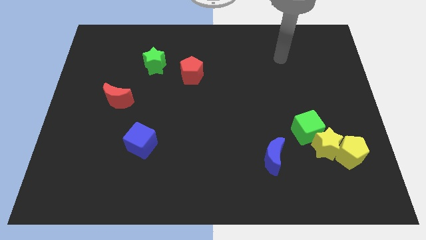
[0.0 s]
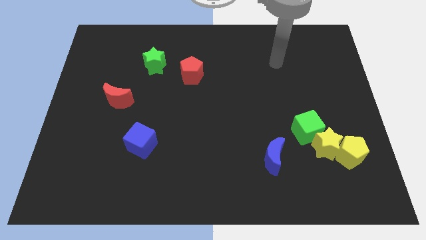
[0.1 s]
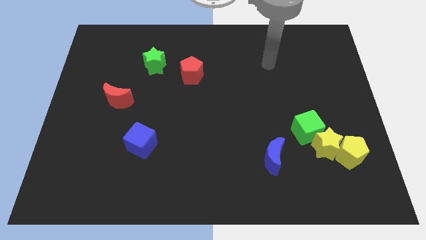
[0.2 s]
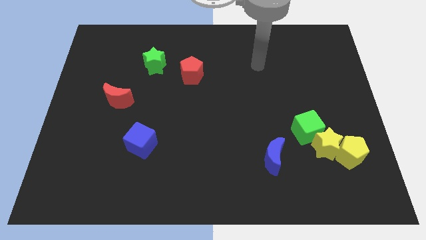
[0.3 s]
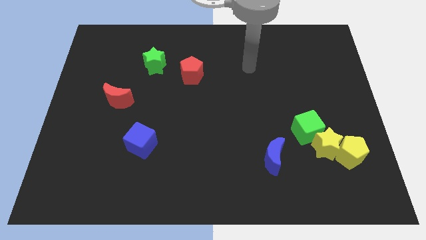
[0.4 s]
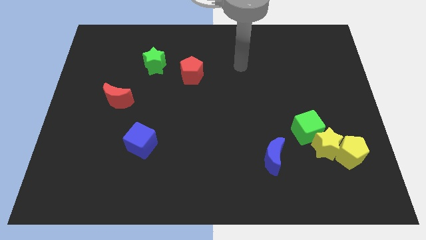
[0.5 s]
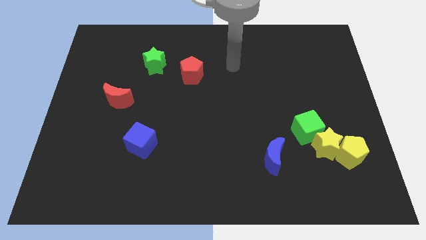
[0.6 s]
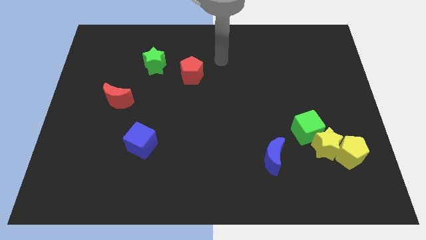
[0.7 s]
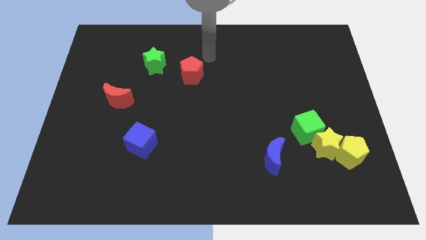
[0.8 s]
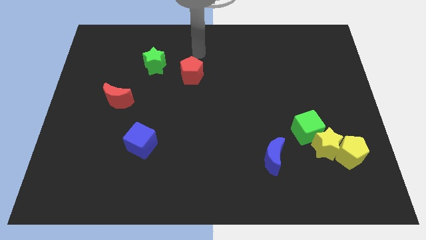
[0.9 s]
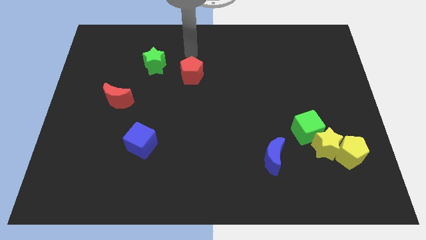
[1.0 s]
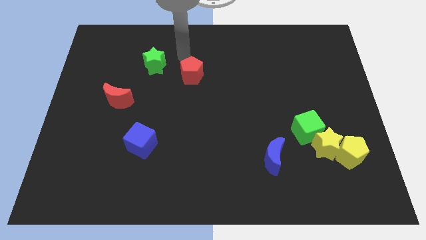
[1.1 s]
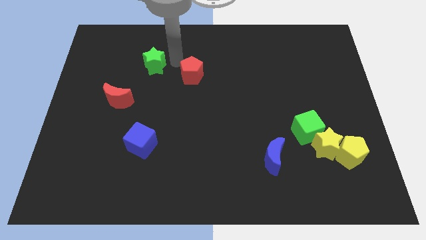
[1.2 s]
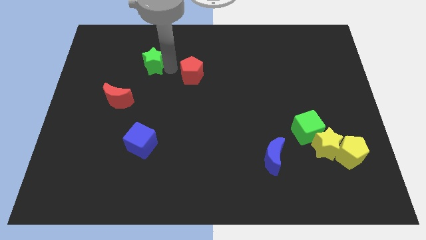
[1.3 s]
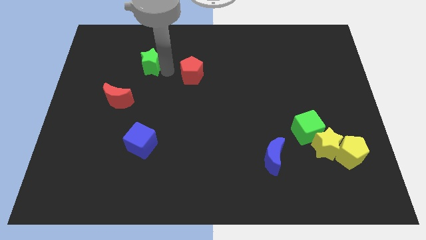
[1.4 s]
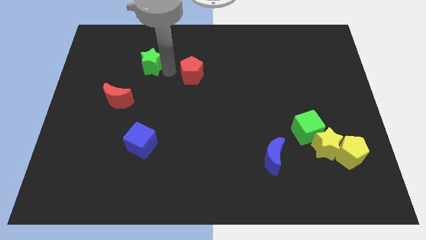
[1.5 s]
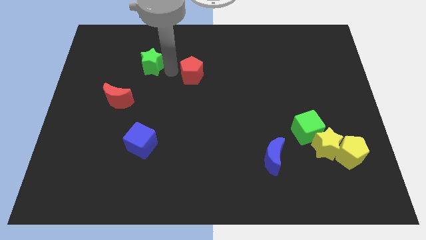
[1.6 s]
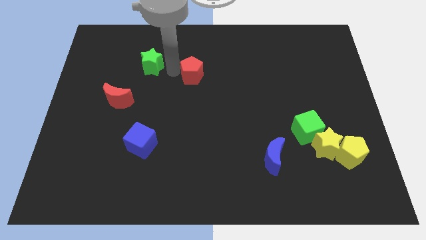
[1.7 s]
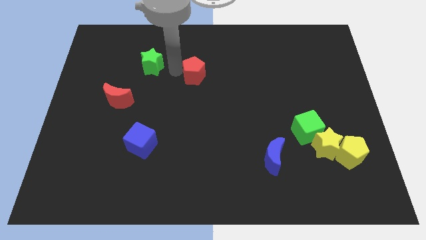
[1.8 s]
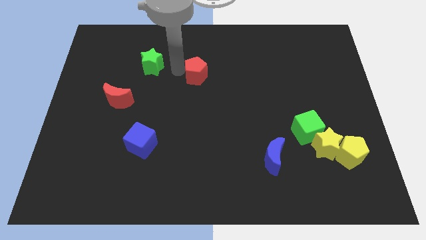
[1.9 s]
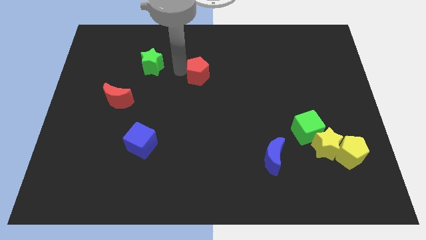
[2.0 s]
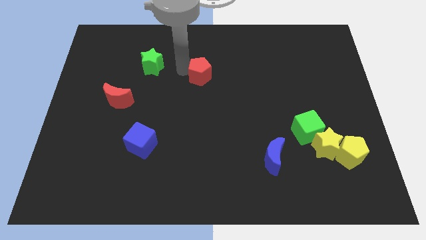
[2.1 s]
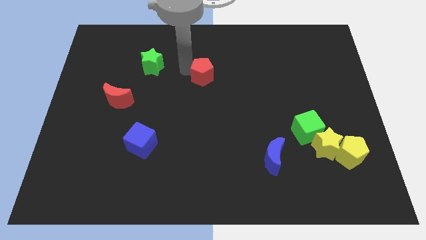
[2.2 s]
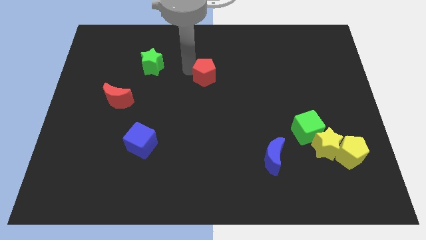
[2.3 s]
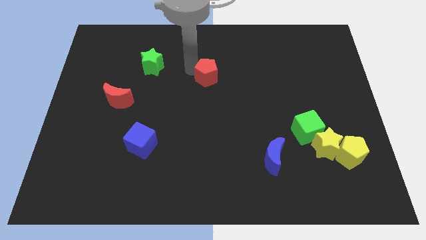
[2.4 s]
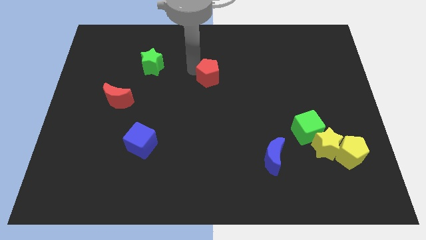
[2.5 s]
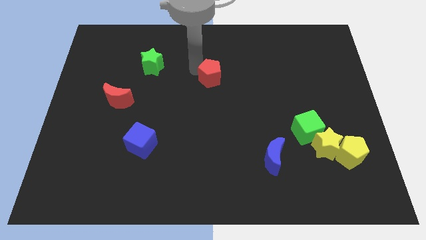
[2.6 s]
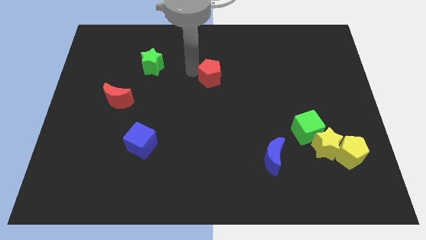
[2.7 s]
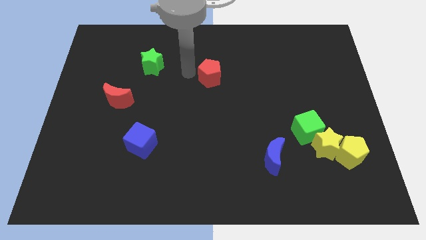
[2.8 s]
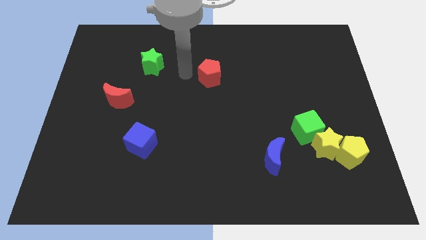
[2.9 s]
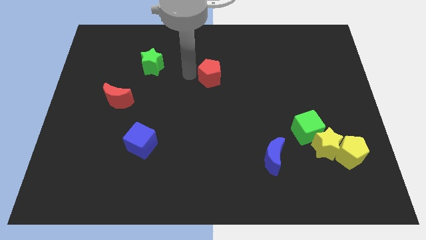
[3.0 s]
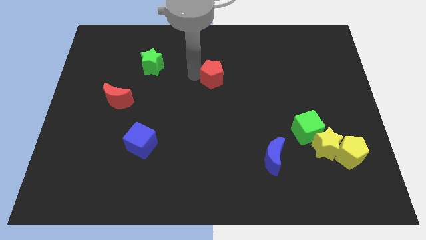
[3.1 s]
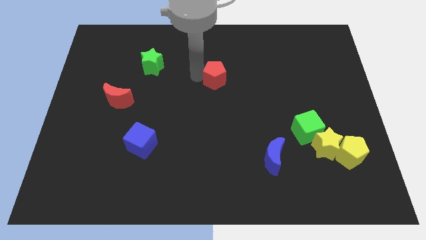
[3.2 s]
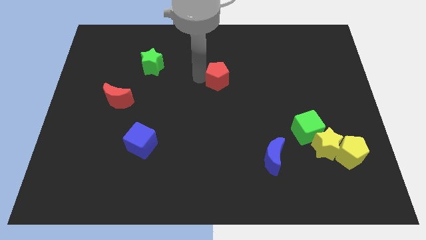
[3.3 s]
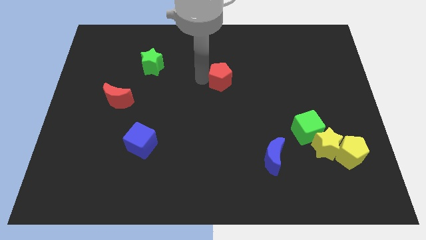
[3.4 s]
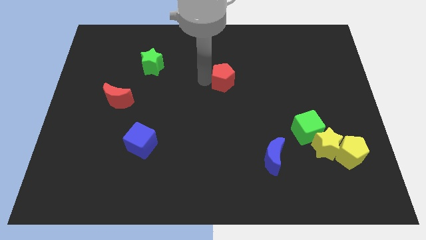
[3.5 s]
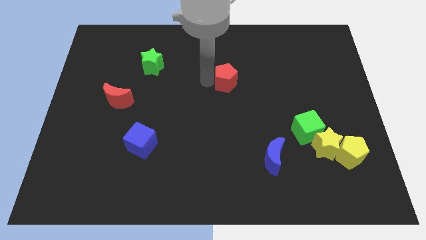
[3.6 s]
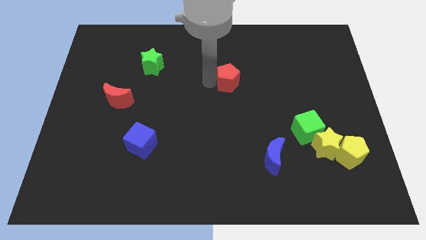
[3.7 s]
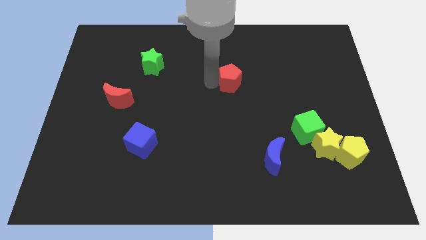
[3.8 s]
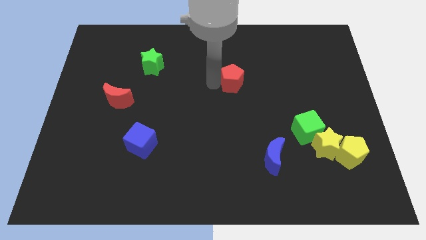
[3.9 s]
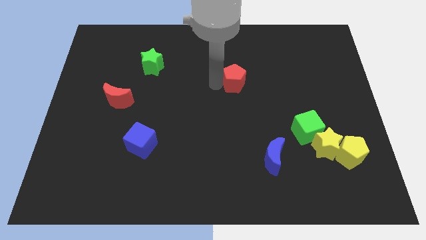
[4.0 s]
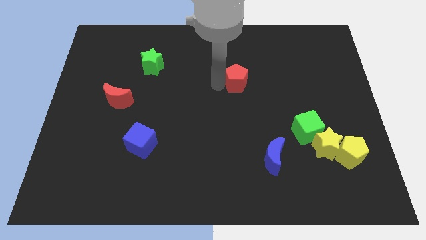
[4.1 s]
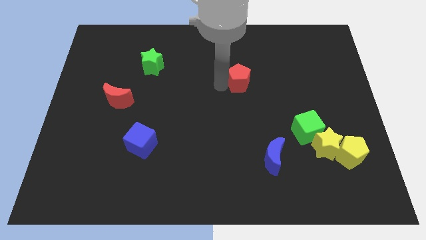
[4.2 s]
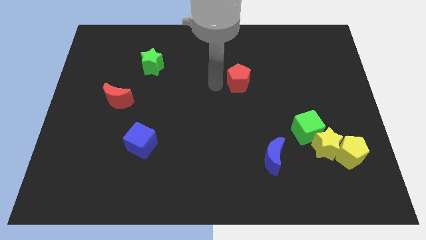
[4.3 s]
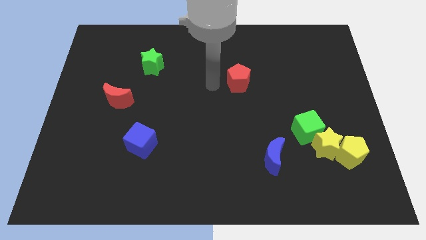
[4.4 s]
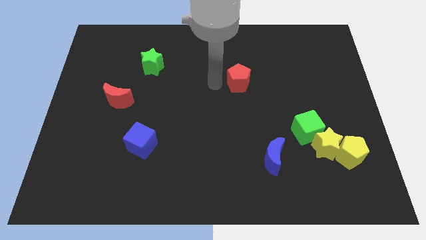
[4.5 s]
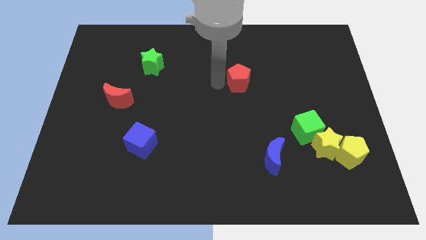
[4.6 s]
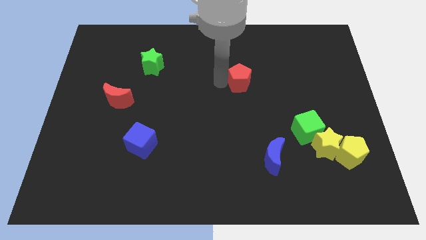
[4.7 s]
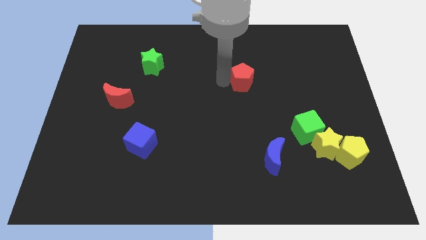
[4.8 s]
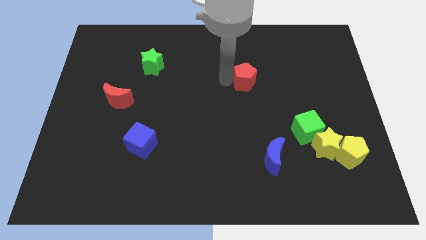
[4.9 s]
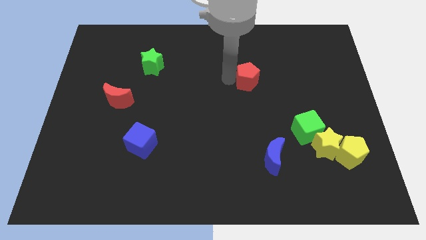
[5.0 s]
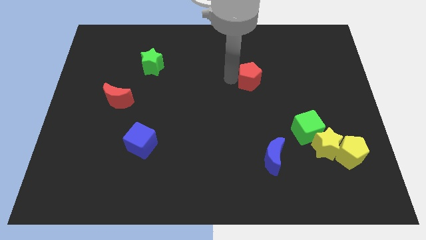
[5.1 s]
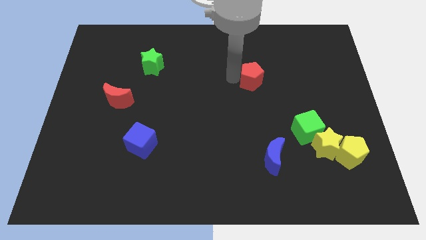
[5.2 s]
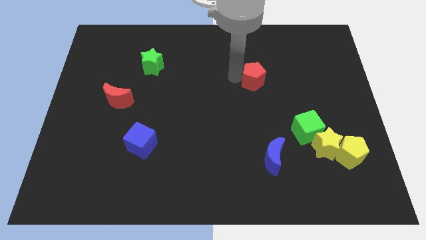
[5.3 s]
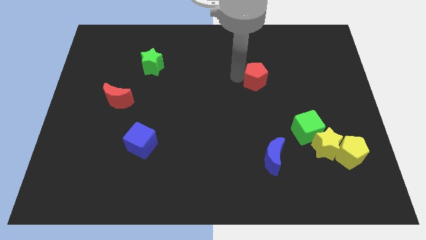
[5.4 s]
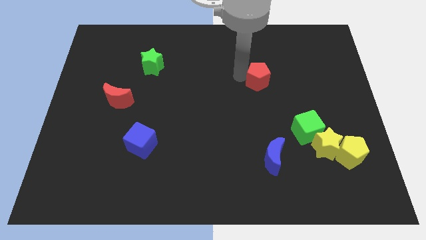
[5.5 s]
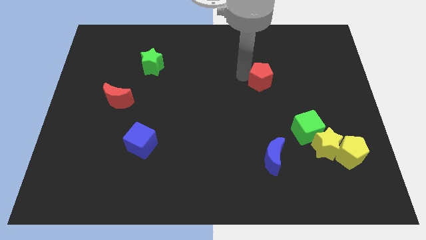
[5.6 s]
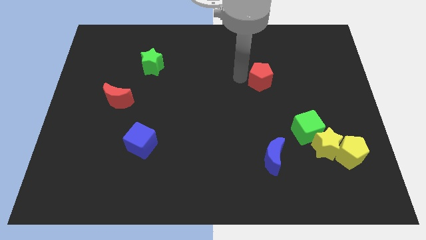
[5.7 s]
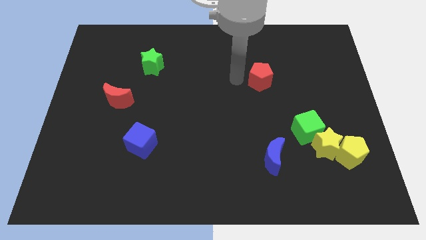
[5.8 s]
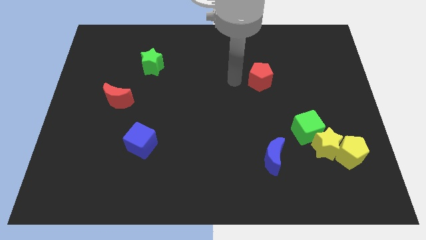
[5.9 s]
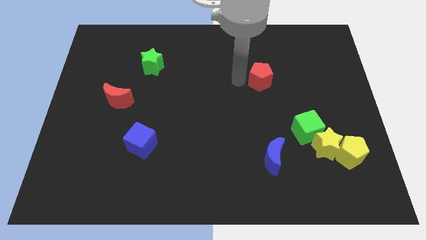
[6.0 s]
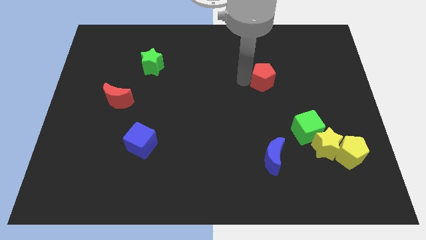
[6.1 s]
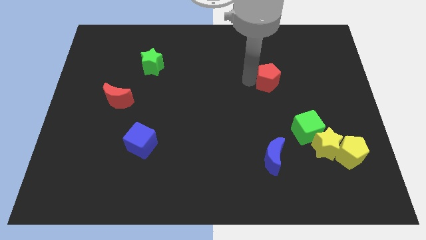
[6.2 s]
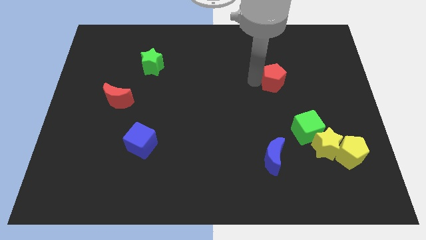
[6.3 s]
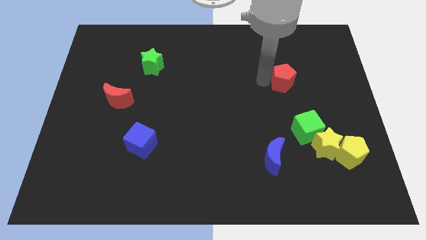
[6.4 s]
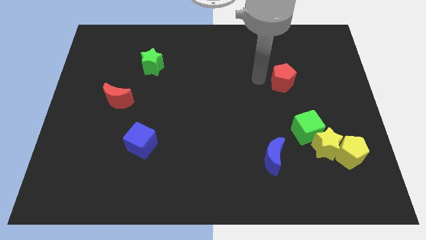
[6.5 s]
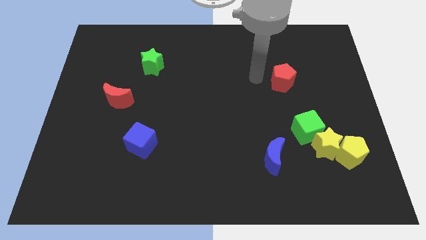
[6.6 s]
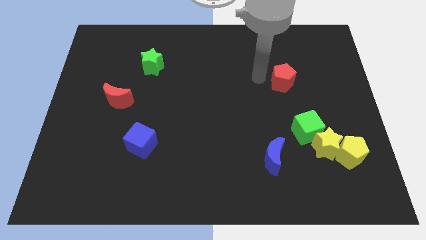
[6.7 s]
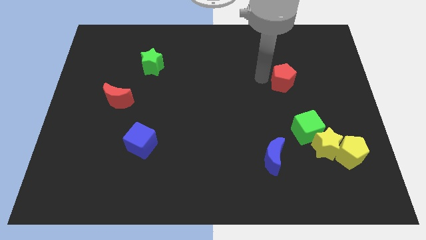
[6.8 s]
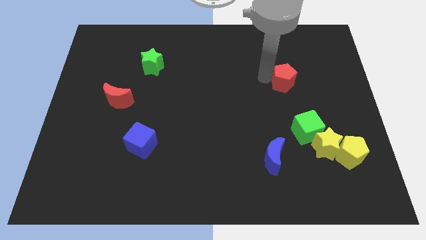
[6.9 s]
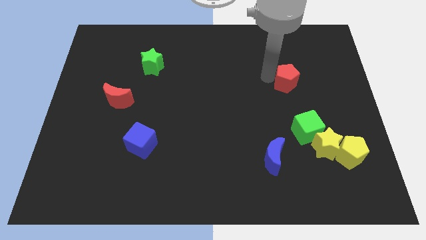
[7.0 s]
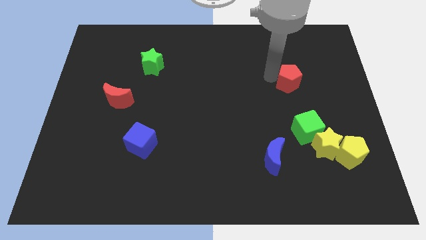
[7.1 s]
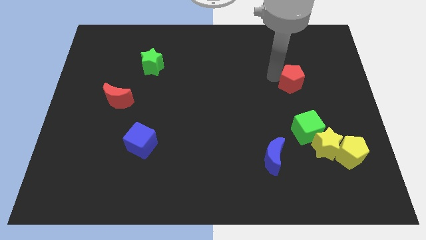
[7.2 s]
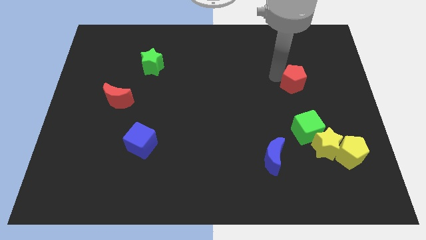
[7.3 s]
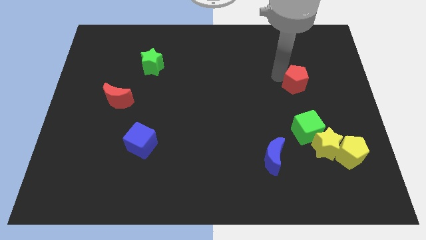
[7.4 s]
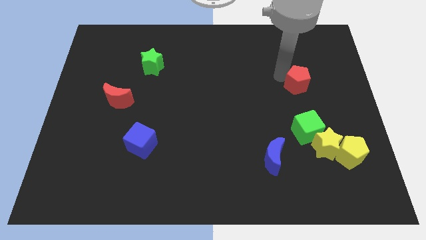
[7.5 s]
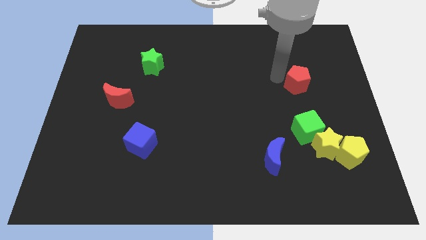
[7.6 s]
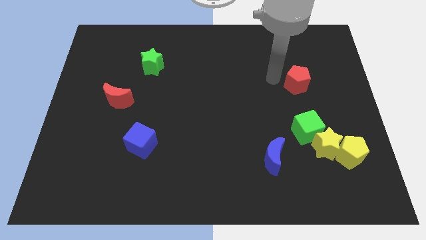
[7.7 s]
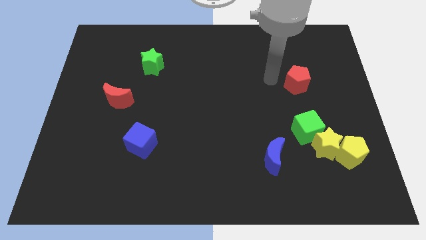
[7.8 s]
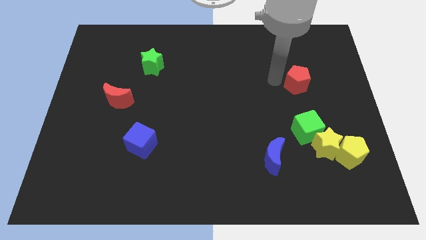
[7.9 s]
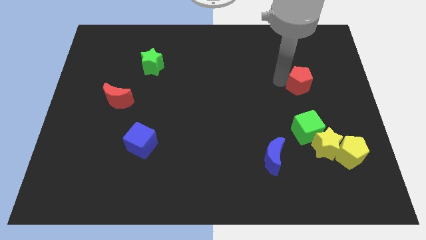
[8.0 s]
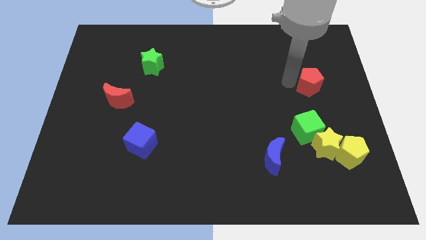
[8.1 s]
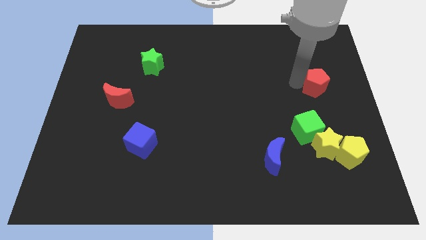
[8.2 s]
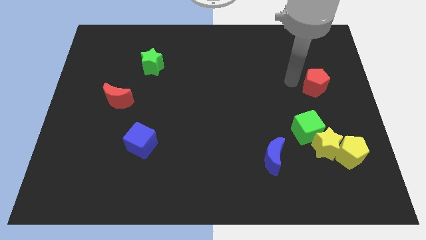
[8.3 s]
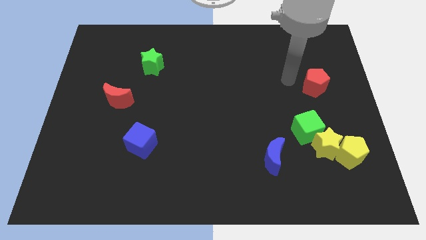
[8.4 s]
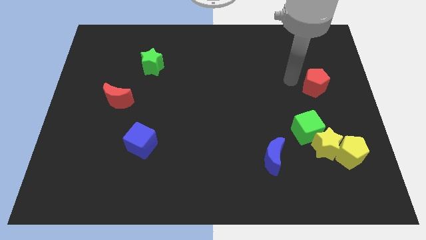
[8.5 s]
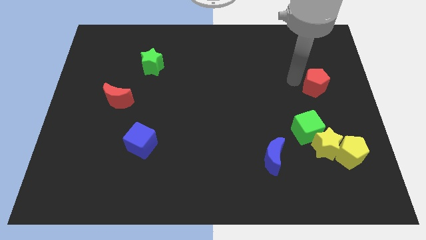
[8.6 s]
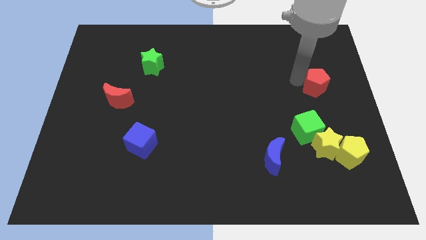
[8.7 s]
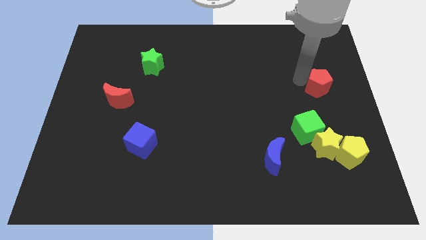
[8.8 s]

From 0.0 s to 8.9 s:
push the red pentagon to the center right
